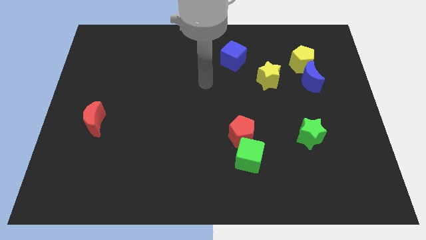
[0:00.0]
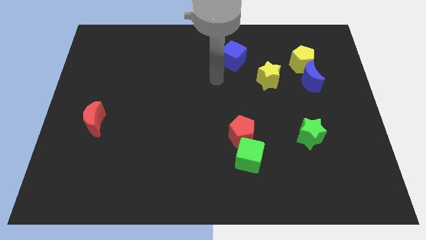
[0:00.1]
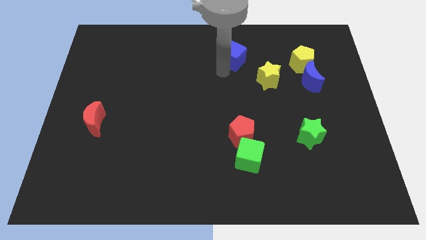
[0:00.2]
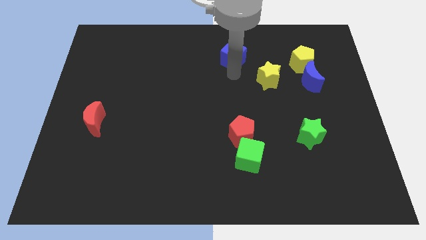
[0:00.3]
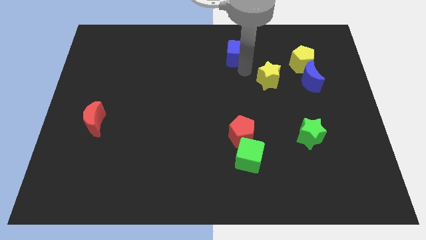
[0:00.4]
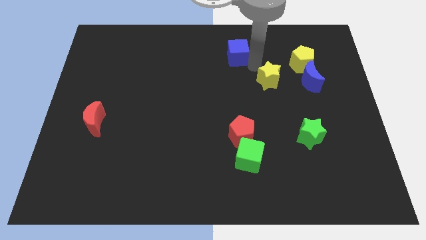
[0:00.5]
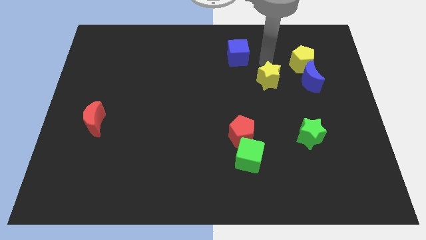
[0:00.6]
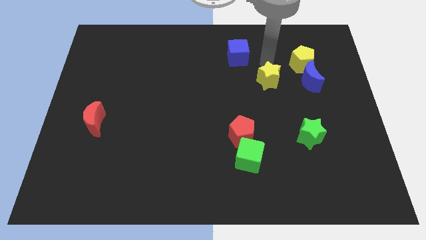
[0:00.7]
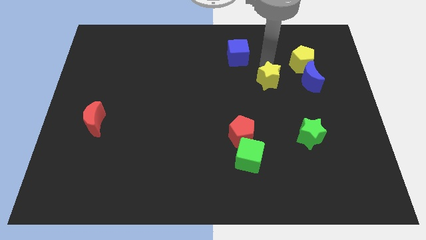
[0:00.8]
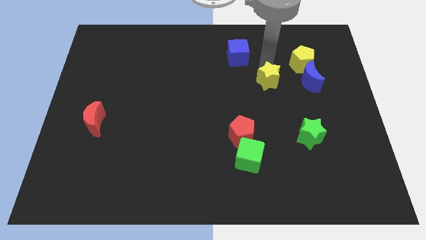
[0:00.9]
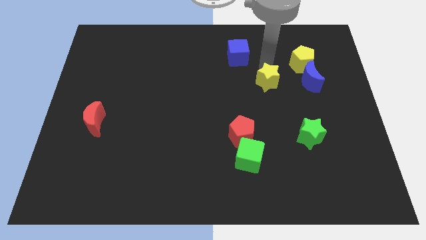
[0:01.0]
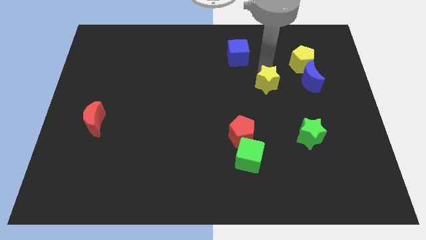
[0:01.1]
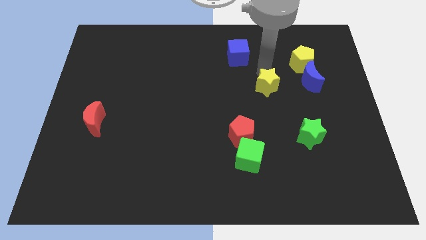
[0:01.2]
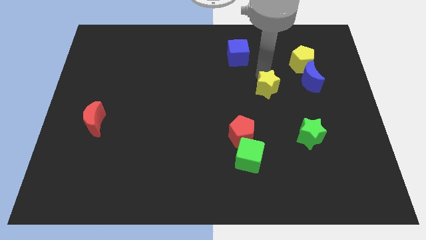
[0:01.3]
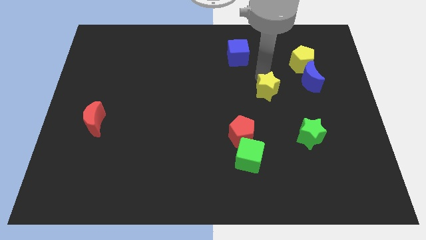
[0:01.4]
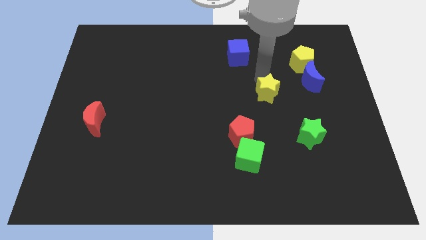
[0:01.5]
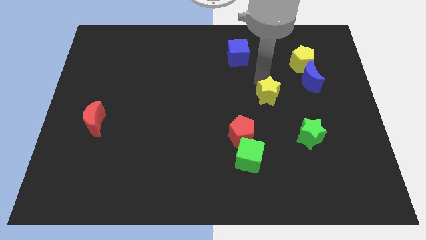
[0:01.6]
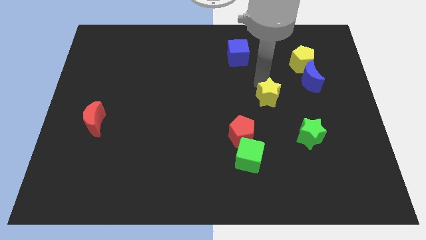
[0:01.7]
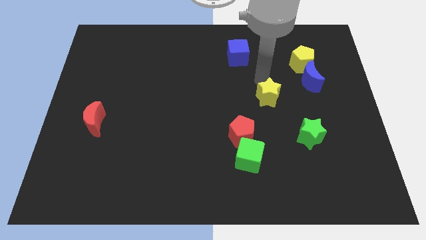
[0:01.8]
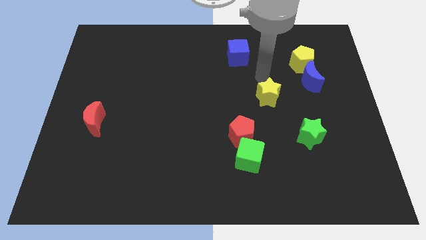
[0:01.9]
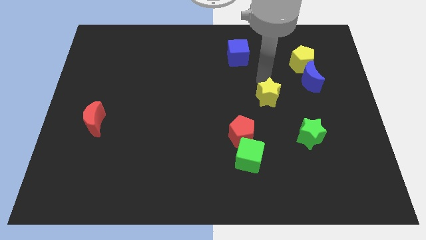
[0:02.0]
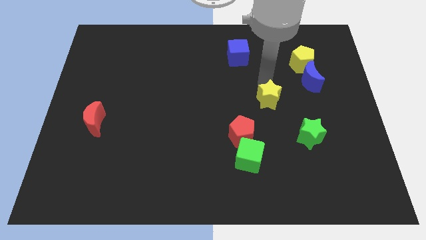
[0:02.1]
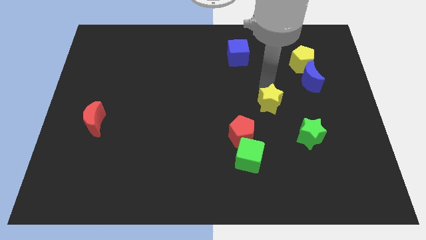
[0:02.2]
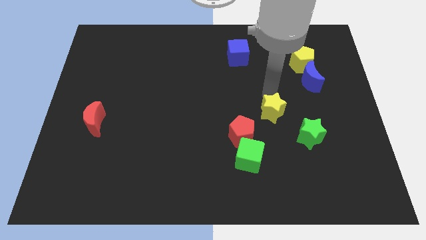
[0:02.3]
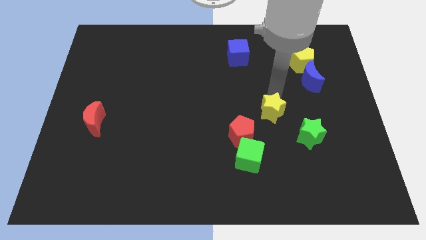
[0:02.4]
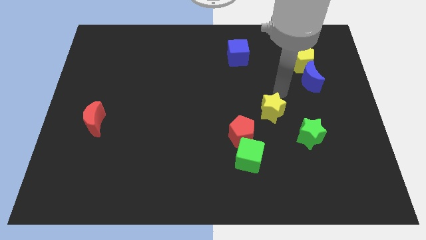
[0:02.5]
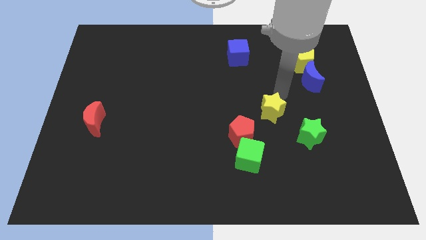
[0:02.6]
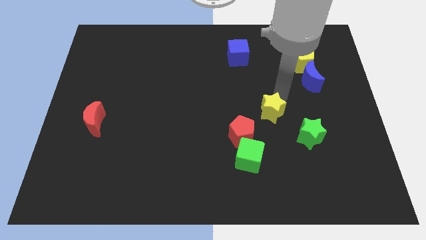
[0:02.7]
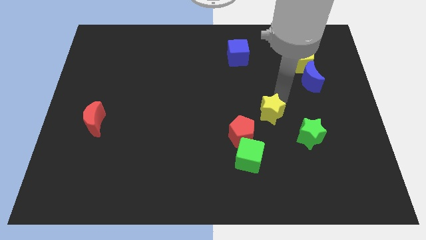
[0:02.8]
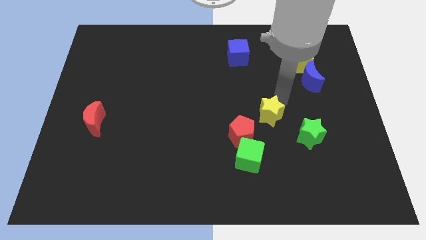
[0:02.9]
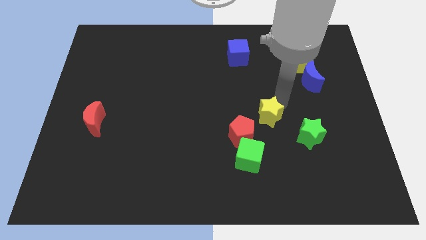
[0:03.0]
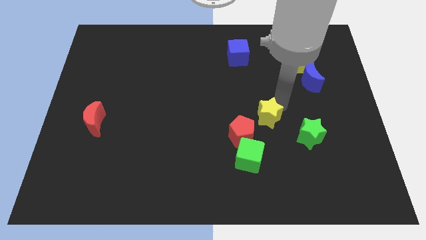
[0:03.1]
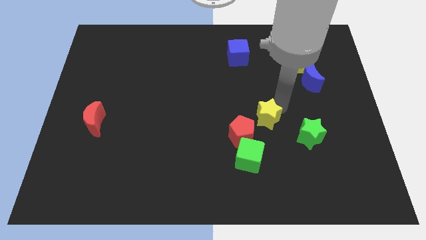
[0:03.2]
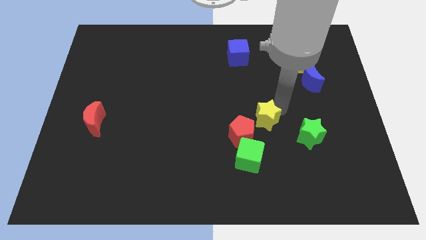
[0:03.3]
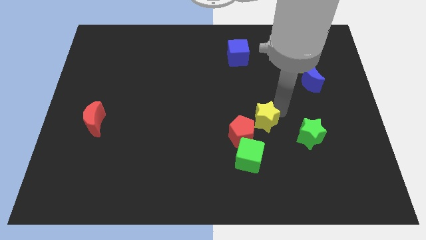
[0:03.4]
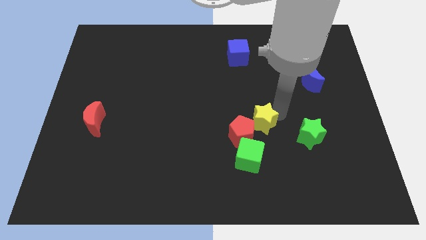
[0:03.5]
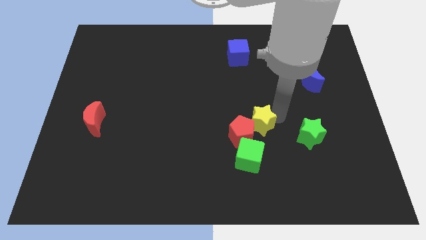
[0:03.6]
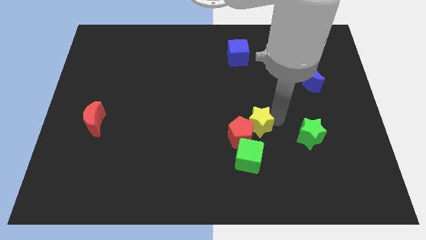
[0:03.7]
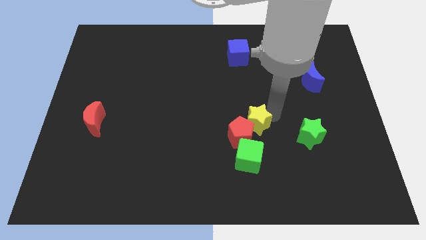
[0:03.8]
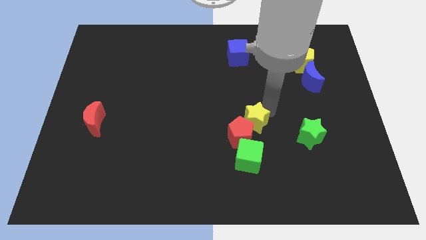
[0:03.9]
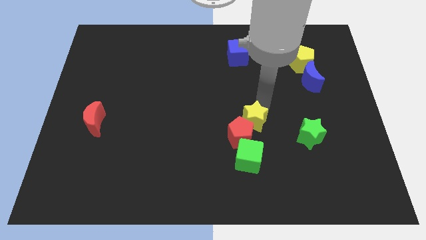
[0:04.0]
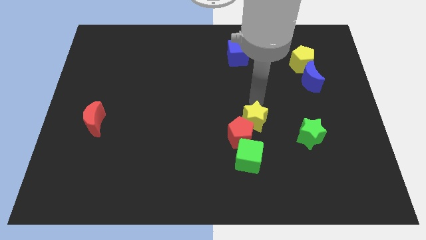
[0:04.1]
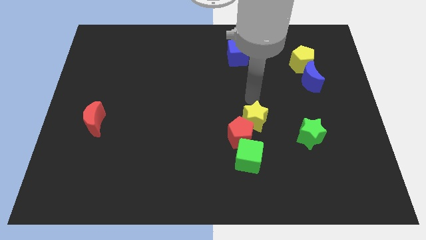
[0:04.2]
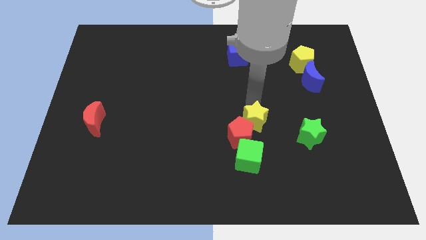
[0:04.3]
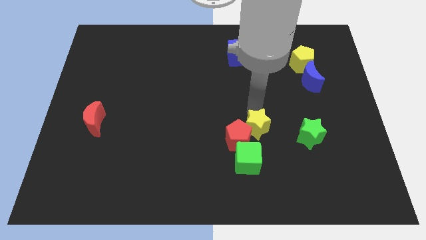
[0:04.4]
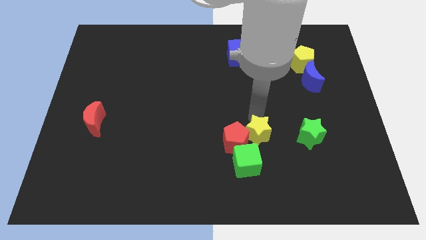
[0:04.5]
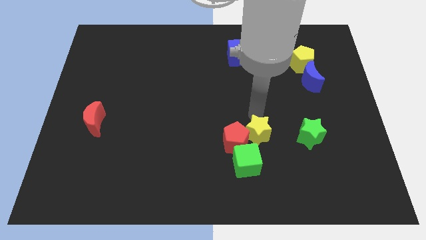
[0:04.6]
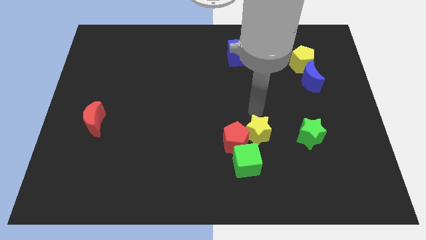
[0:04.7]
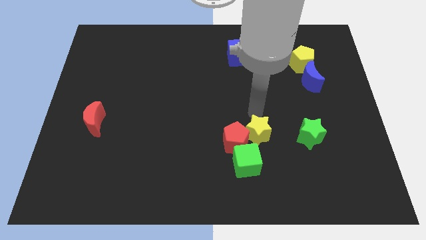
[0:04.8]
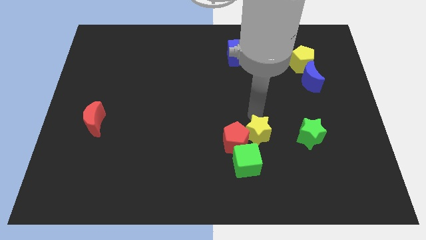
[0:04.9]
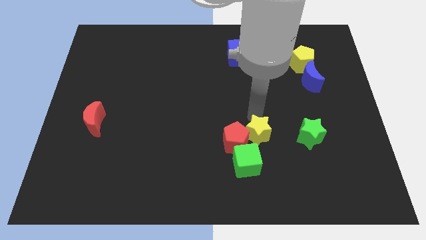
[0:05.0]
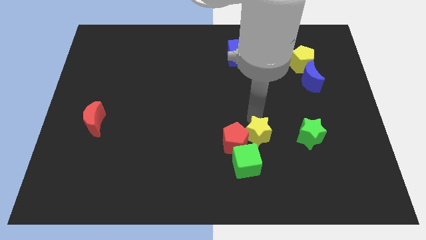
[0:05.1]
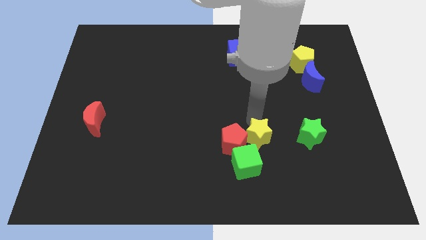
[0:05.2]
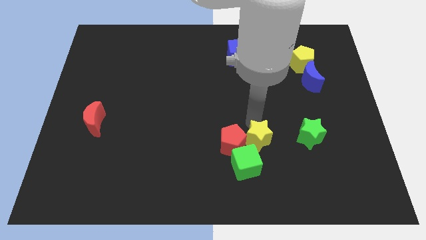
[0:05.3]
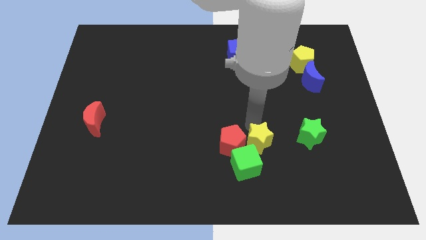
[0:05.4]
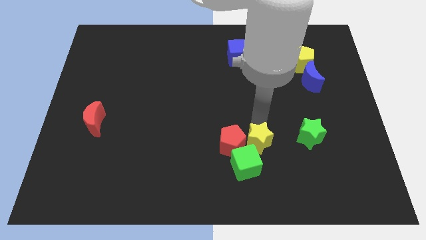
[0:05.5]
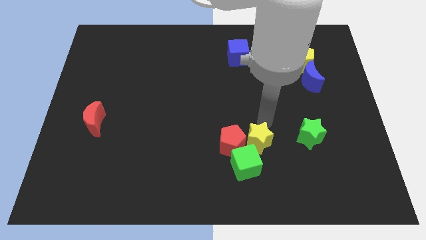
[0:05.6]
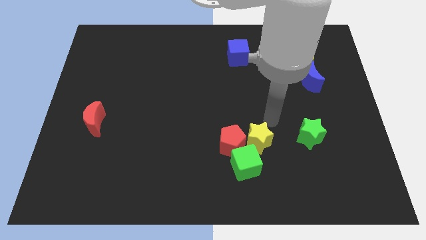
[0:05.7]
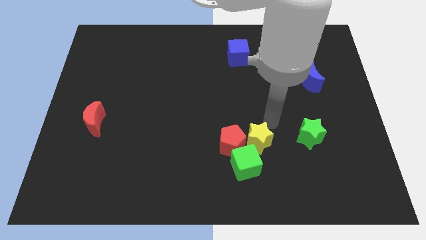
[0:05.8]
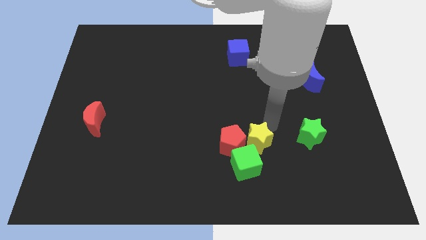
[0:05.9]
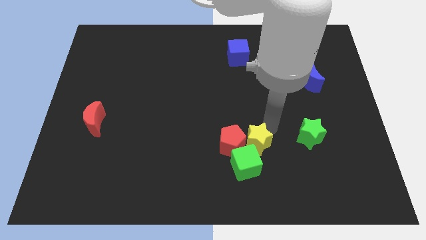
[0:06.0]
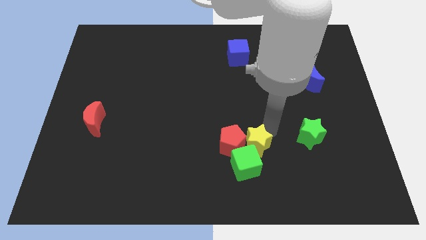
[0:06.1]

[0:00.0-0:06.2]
put the yellow star to the green cube
